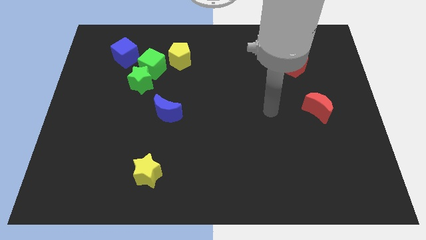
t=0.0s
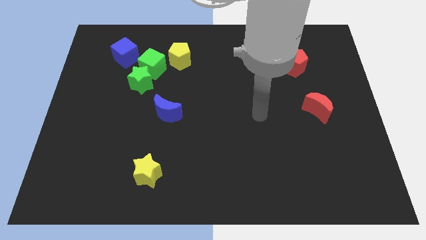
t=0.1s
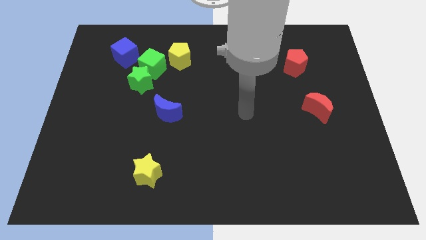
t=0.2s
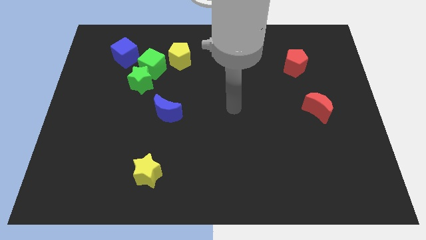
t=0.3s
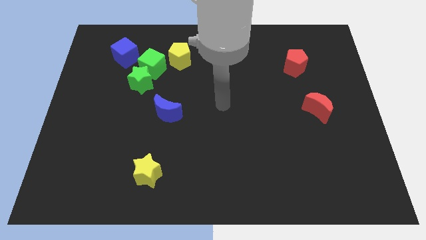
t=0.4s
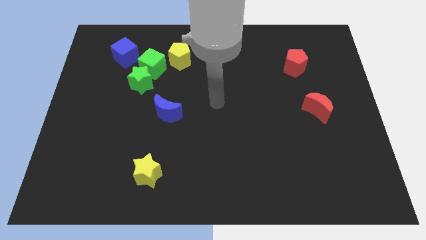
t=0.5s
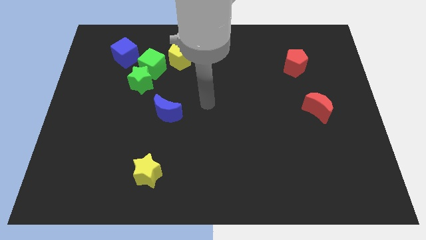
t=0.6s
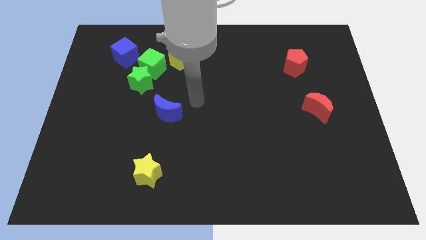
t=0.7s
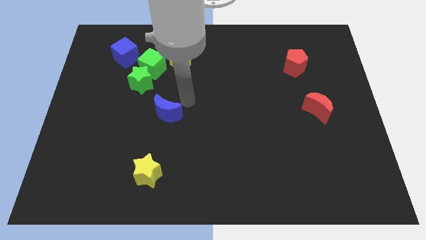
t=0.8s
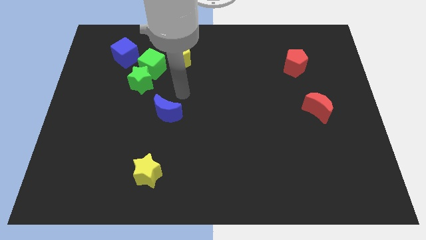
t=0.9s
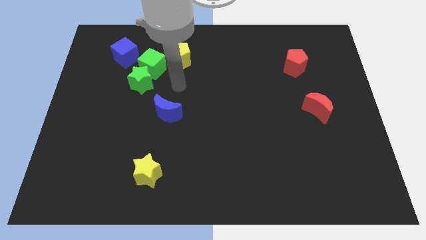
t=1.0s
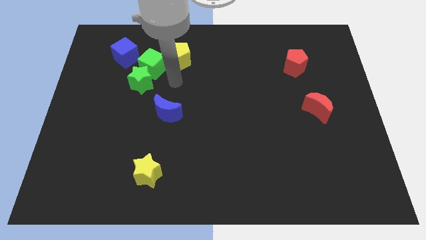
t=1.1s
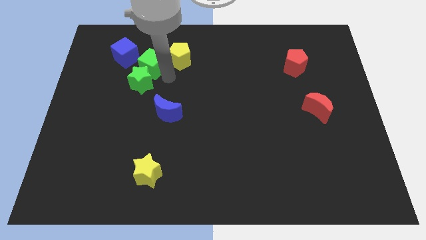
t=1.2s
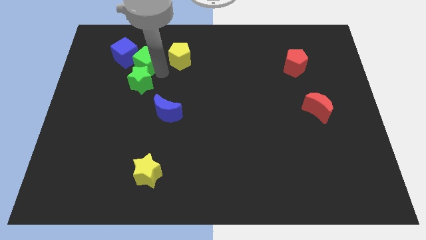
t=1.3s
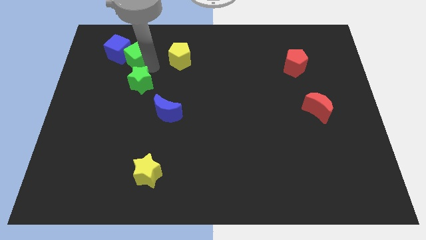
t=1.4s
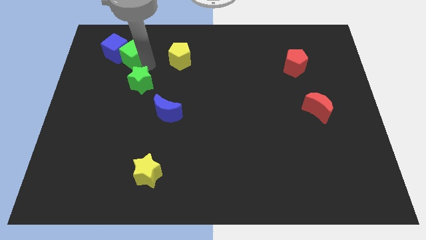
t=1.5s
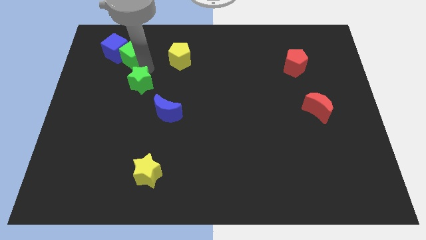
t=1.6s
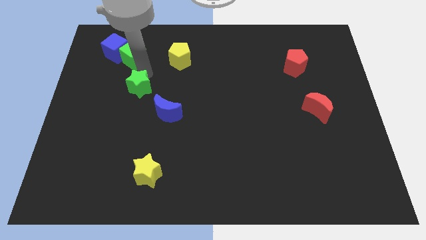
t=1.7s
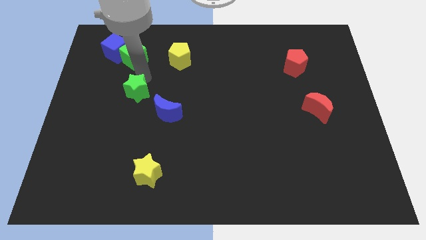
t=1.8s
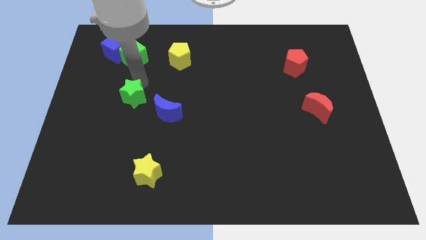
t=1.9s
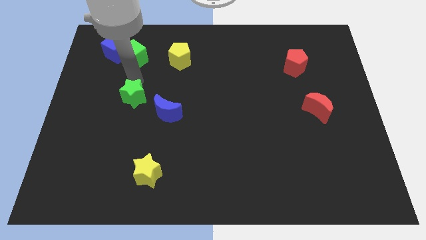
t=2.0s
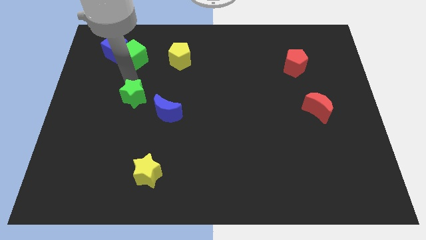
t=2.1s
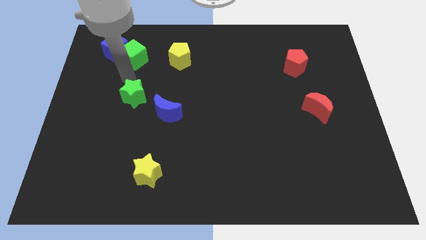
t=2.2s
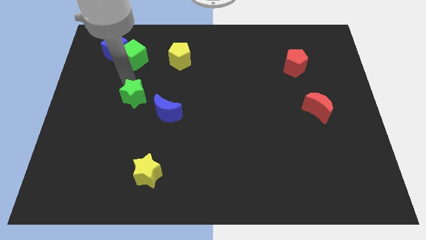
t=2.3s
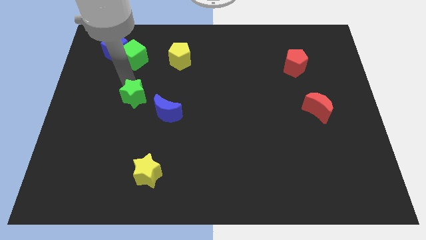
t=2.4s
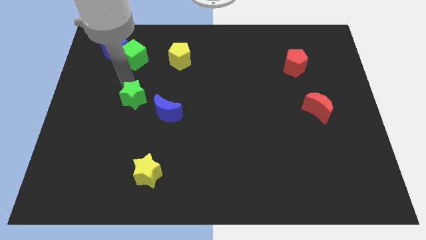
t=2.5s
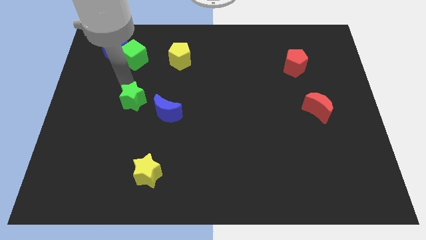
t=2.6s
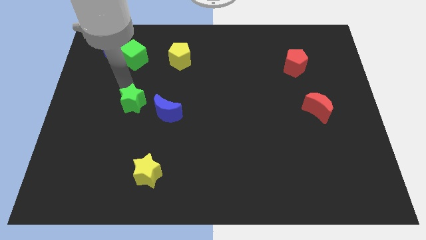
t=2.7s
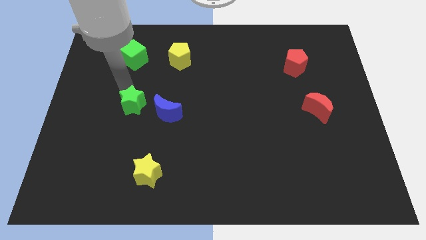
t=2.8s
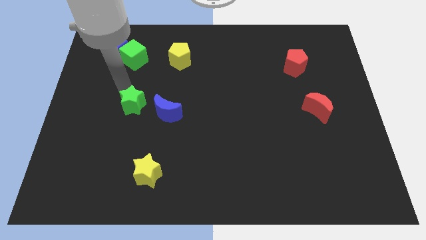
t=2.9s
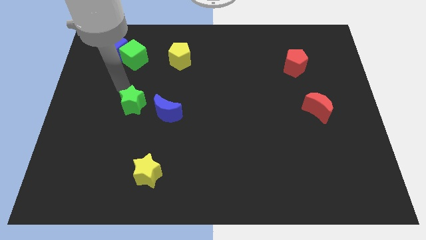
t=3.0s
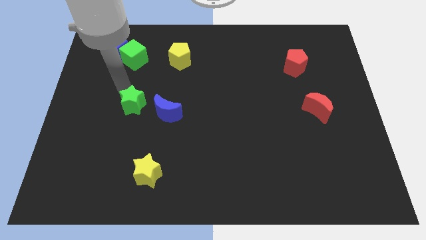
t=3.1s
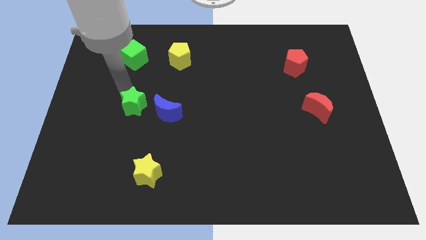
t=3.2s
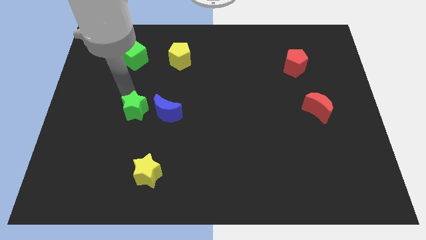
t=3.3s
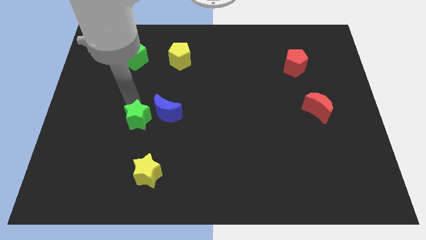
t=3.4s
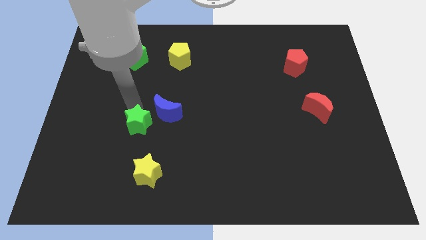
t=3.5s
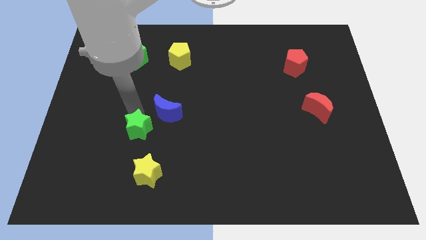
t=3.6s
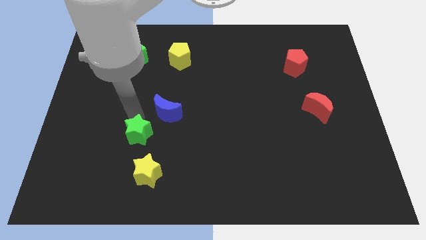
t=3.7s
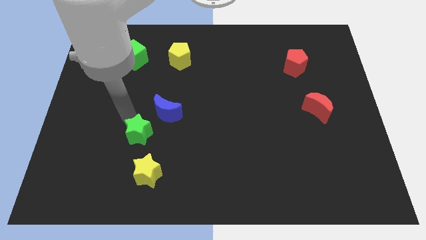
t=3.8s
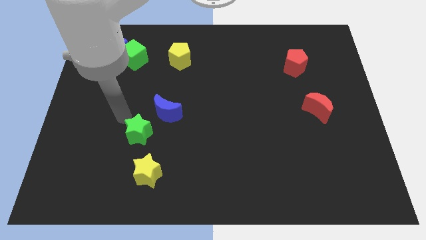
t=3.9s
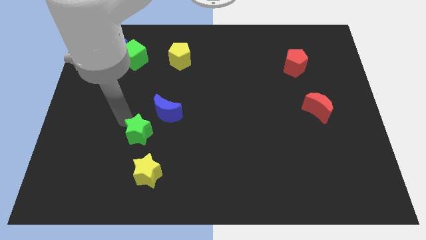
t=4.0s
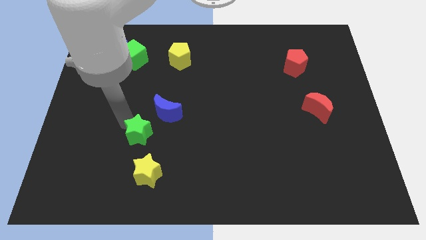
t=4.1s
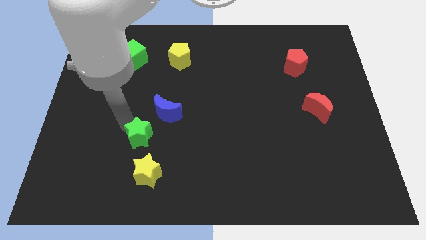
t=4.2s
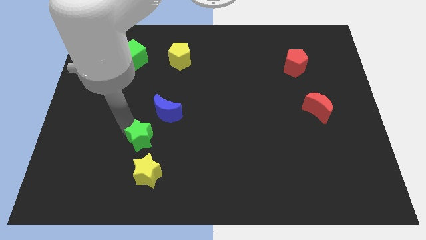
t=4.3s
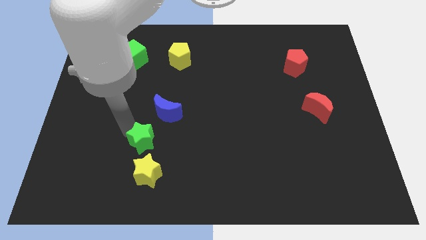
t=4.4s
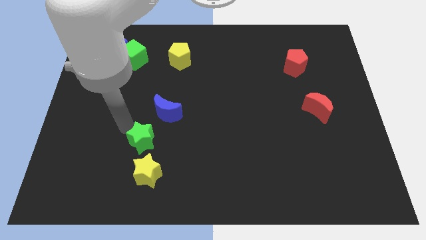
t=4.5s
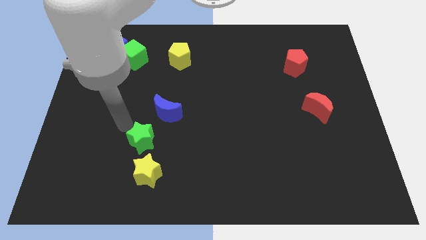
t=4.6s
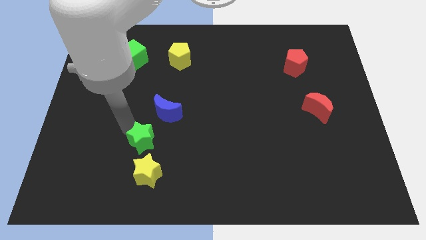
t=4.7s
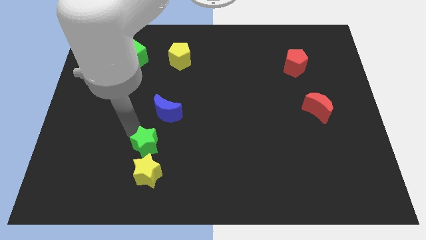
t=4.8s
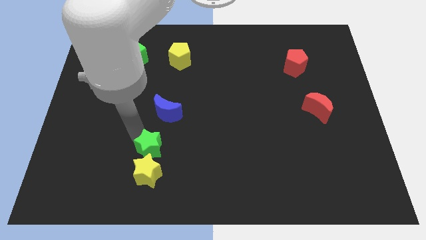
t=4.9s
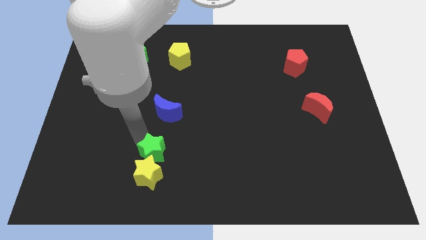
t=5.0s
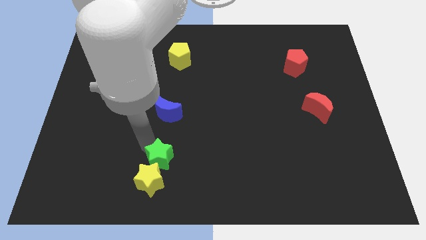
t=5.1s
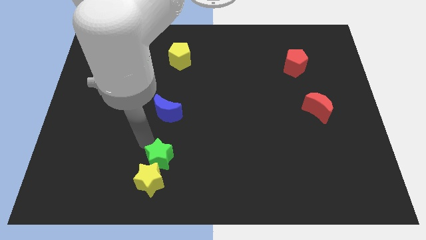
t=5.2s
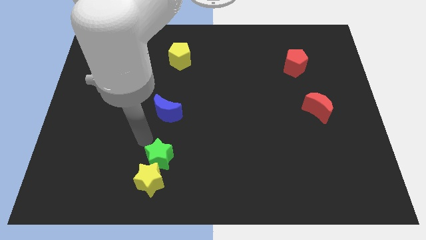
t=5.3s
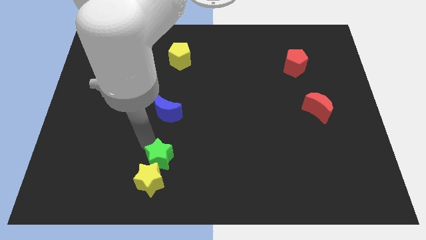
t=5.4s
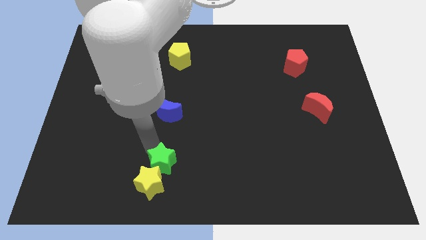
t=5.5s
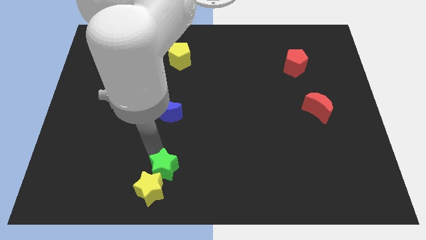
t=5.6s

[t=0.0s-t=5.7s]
slide the green star to the bottom

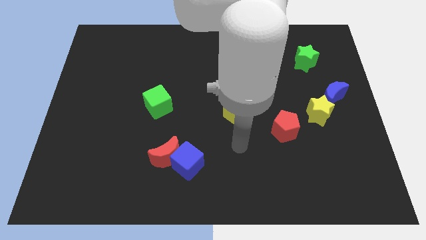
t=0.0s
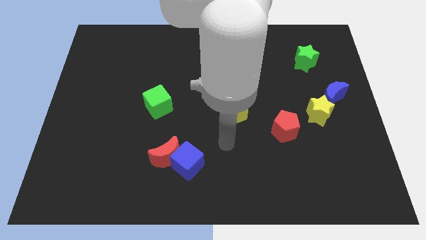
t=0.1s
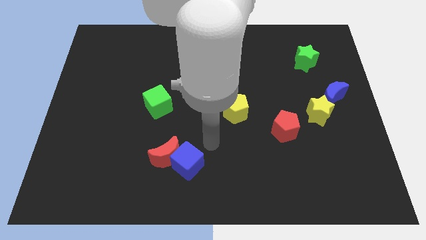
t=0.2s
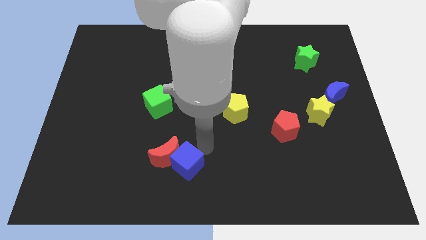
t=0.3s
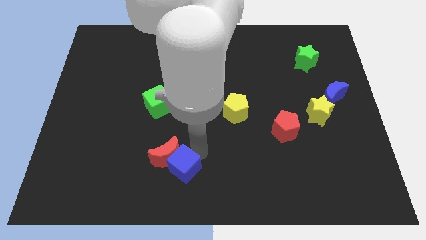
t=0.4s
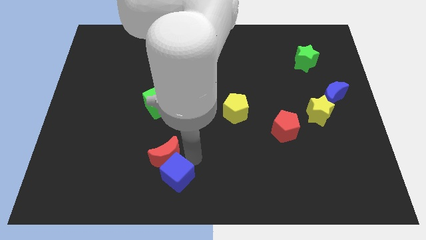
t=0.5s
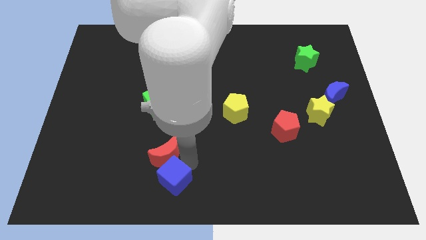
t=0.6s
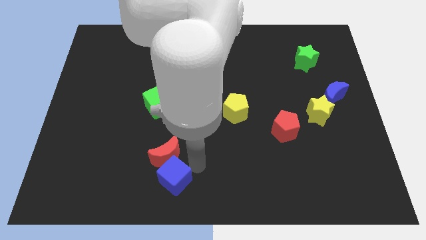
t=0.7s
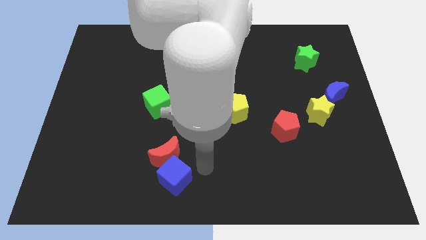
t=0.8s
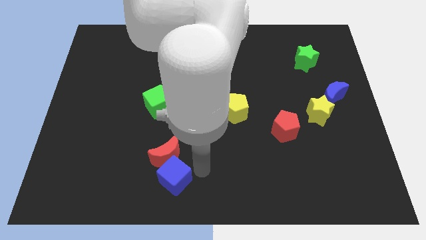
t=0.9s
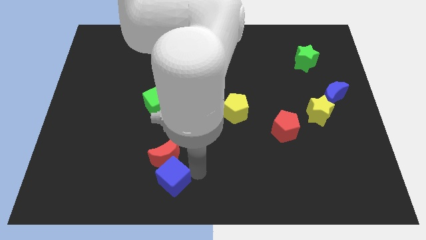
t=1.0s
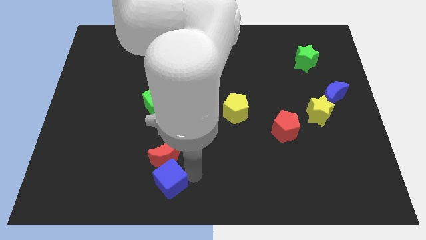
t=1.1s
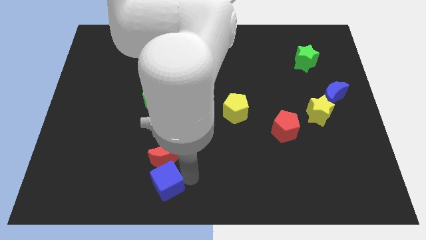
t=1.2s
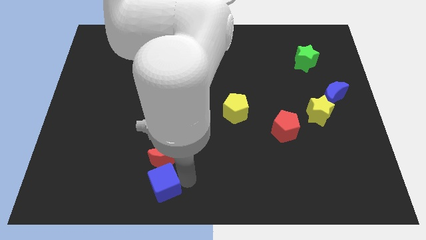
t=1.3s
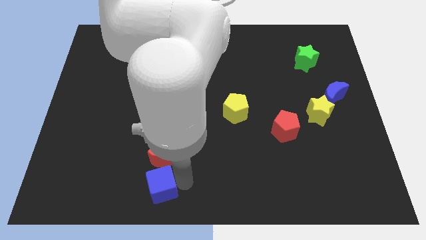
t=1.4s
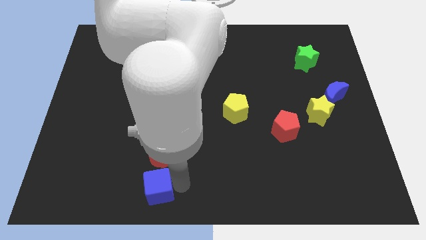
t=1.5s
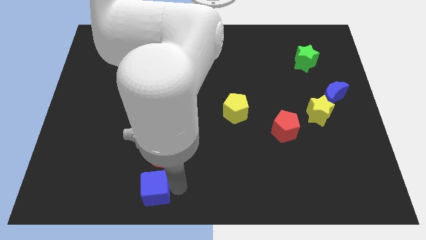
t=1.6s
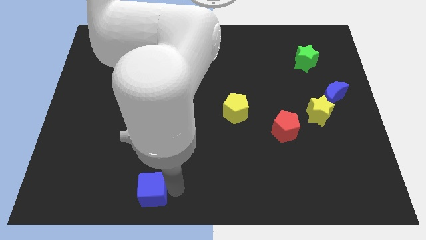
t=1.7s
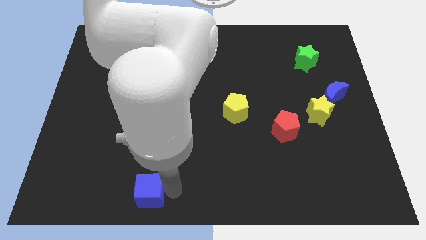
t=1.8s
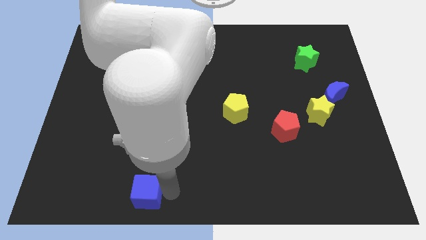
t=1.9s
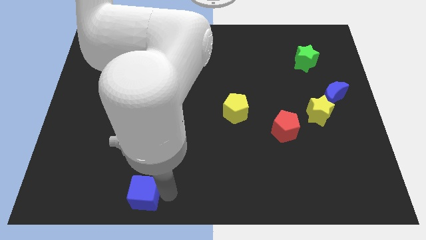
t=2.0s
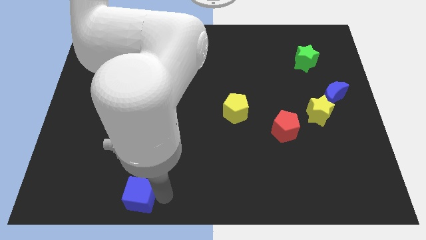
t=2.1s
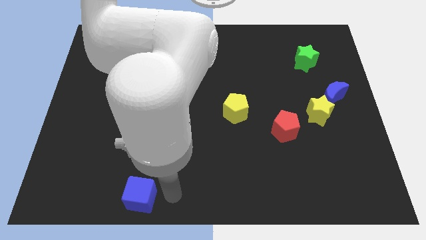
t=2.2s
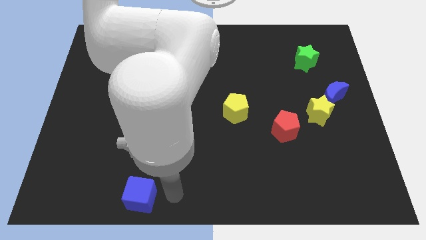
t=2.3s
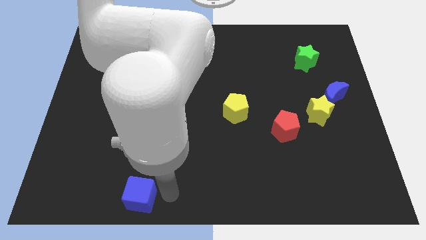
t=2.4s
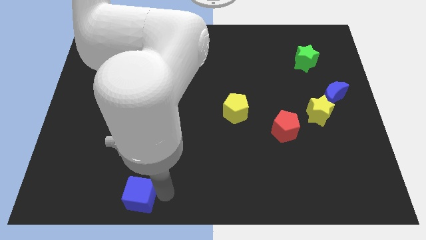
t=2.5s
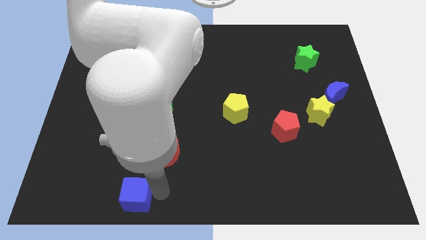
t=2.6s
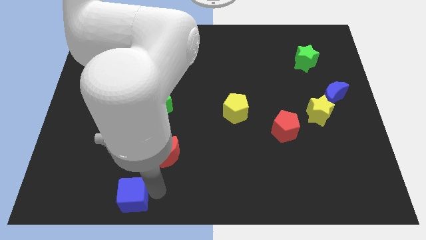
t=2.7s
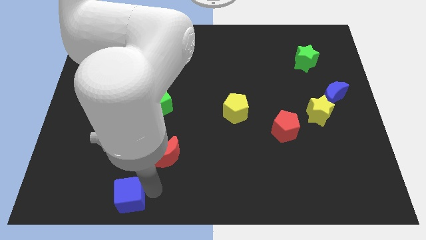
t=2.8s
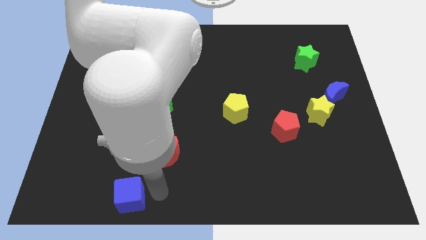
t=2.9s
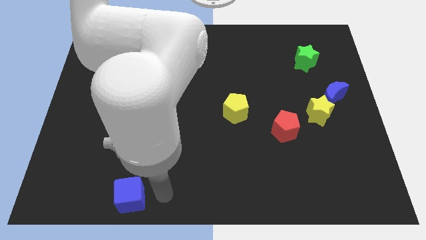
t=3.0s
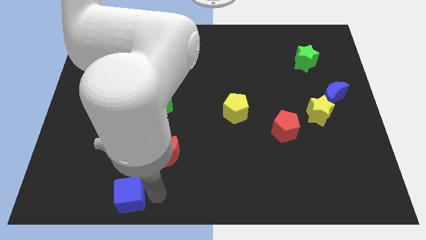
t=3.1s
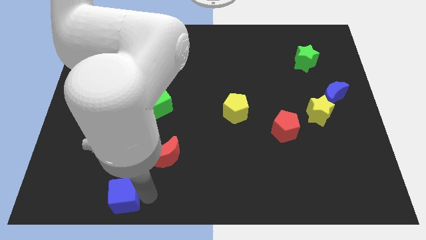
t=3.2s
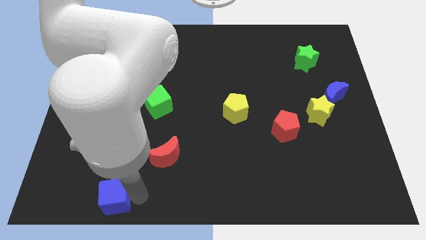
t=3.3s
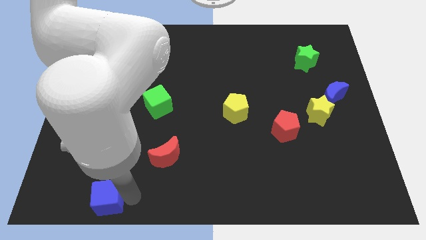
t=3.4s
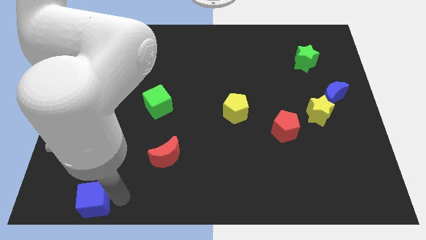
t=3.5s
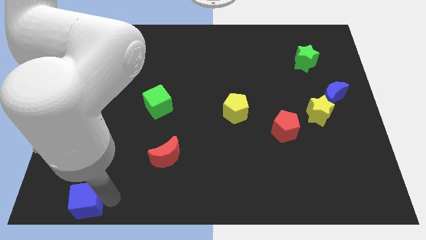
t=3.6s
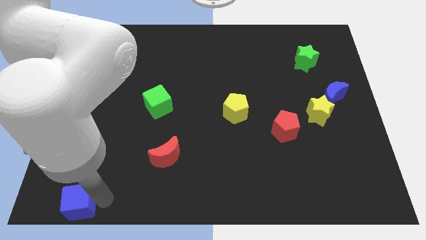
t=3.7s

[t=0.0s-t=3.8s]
move the blue cube to the bottom left corner
